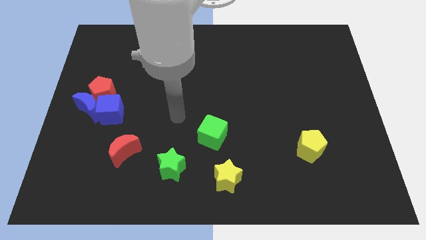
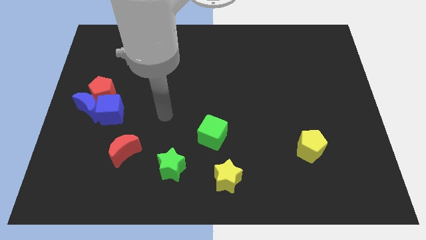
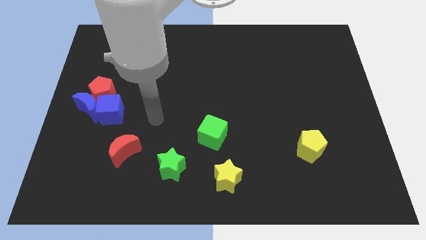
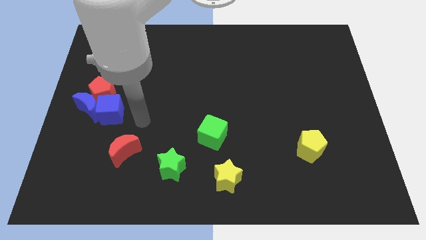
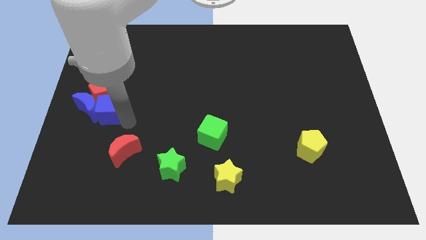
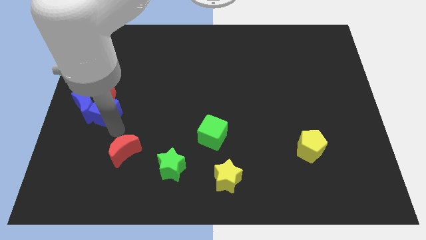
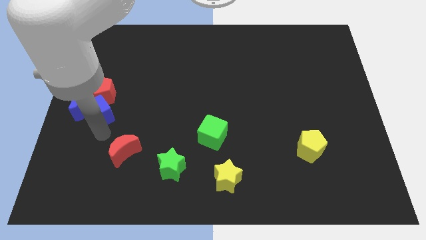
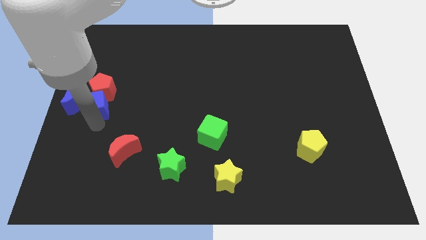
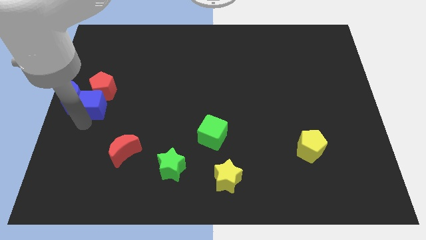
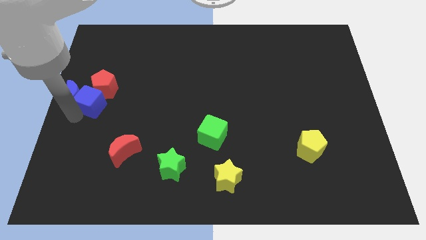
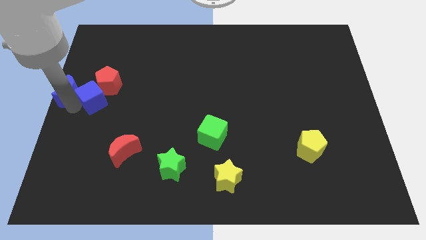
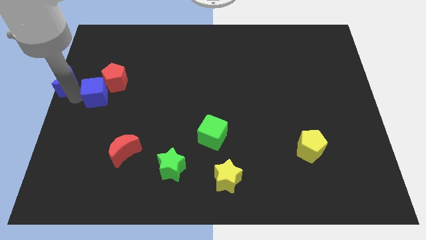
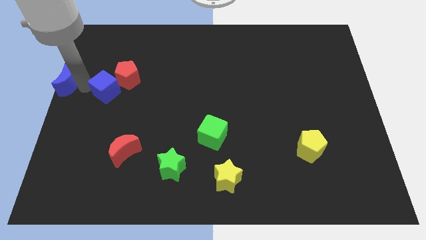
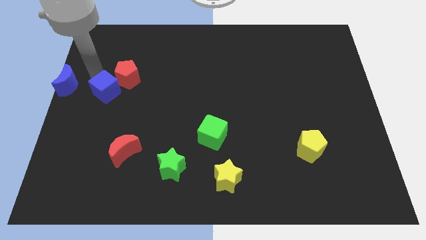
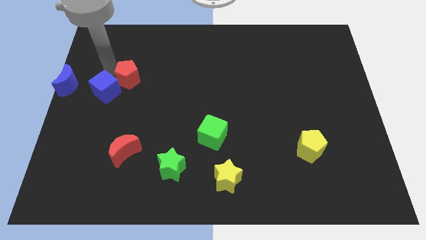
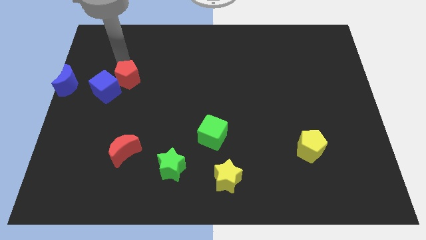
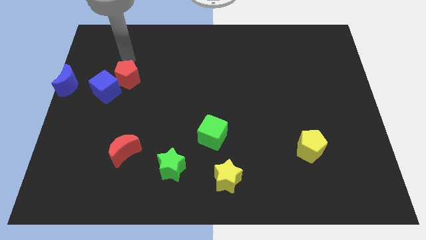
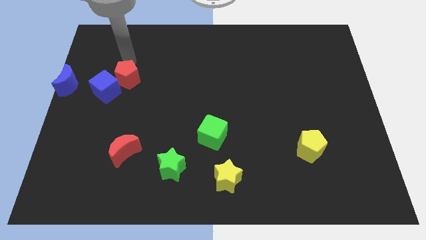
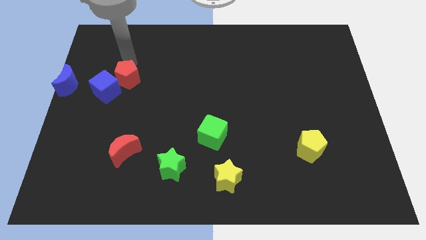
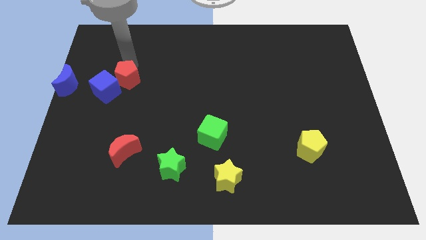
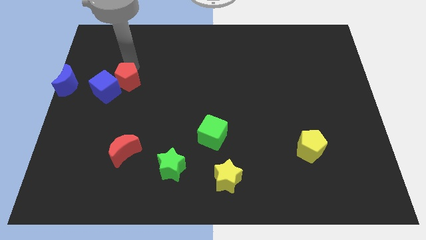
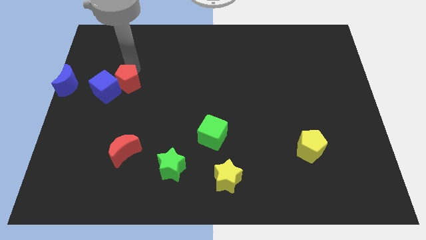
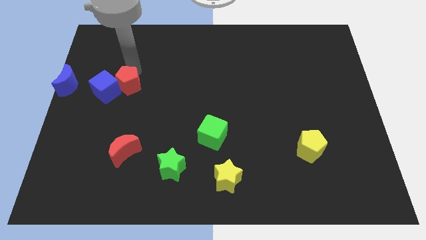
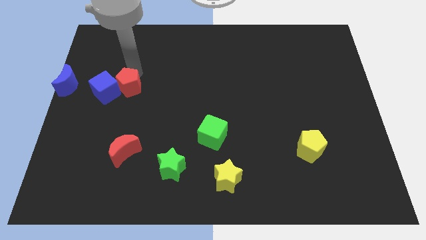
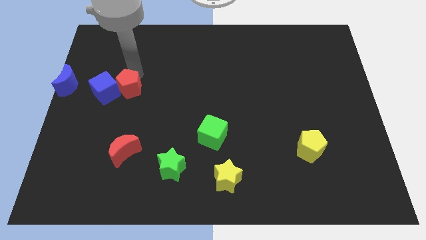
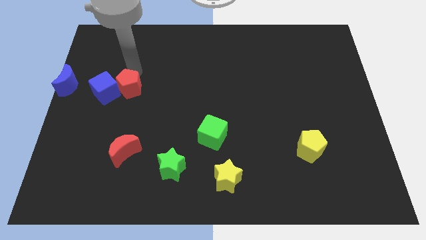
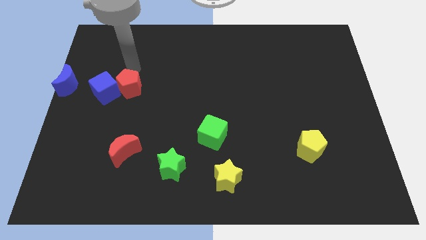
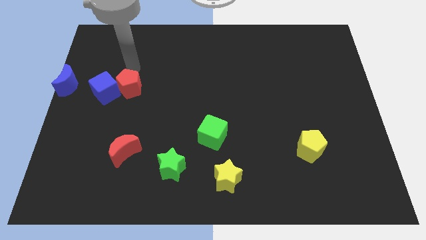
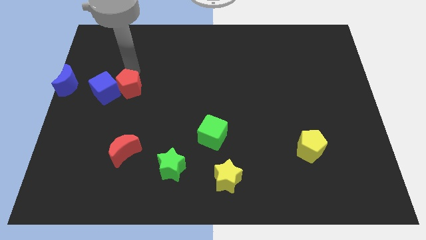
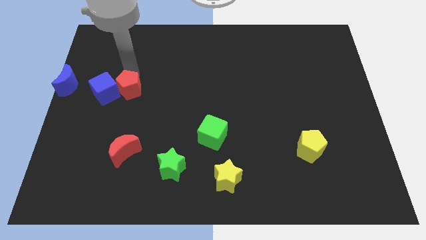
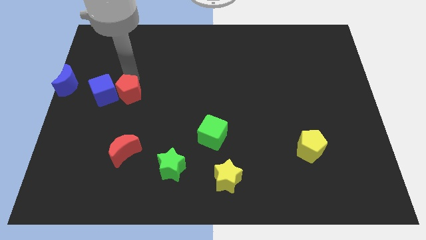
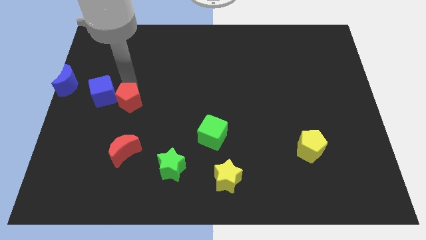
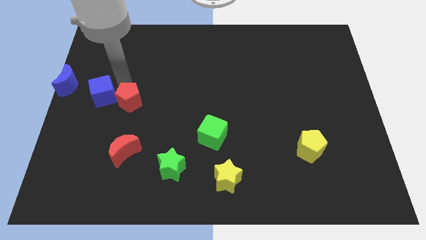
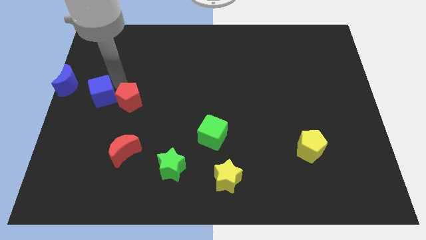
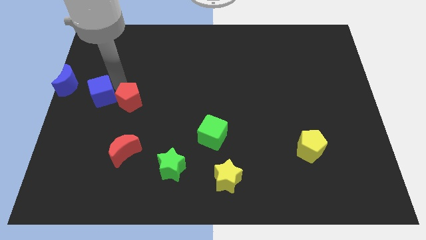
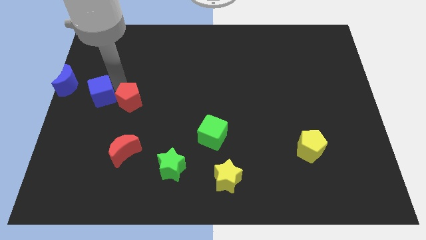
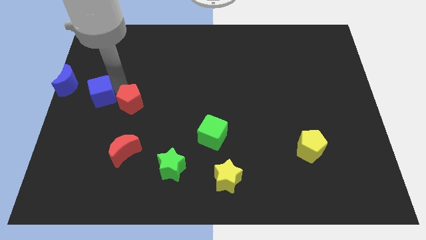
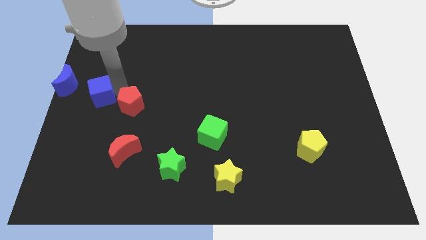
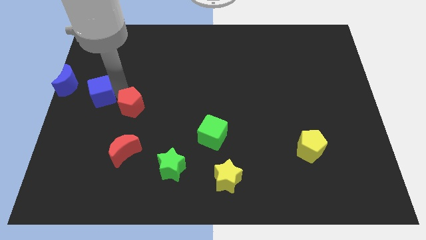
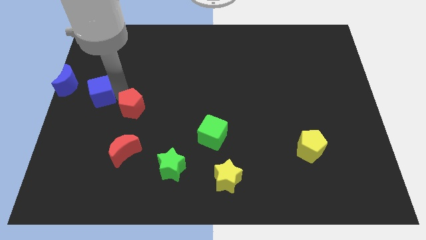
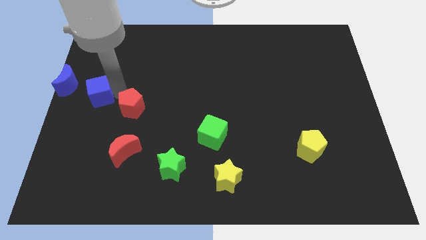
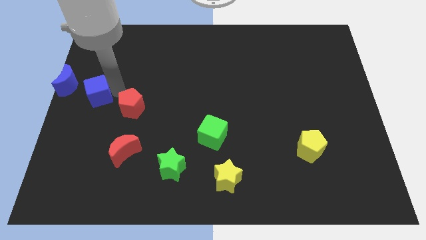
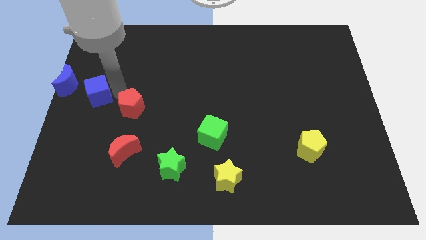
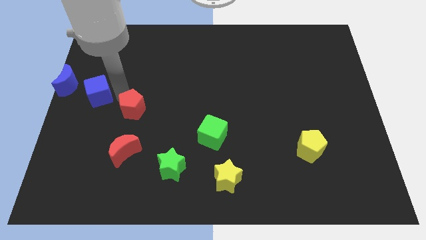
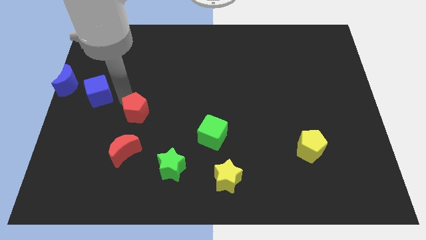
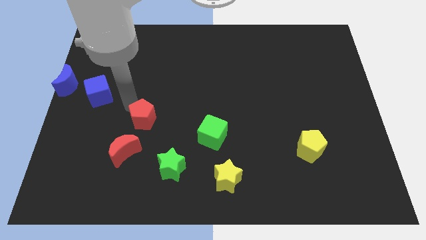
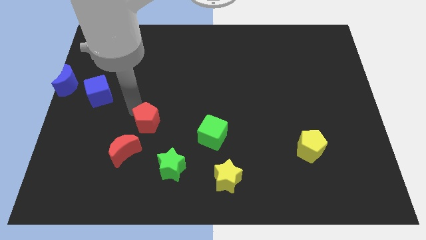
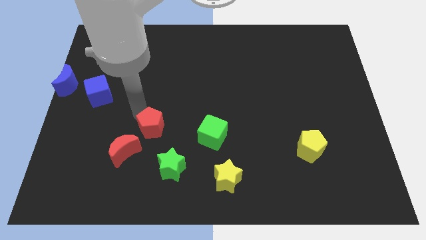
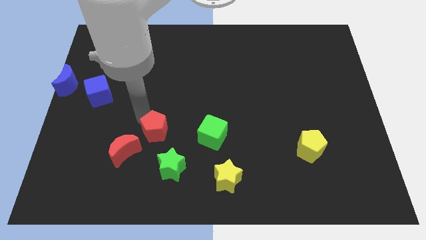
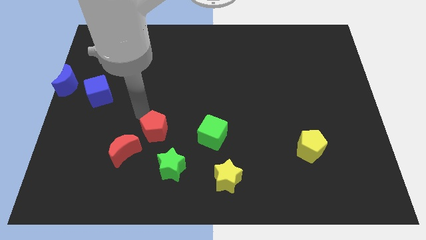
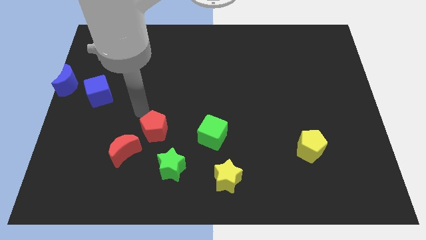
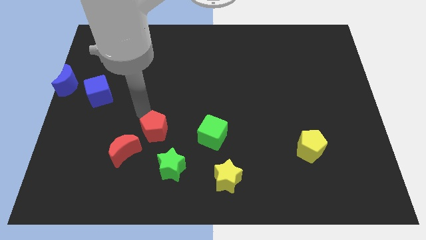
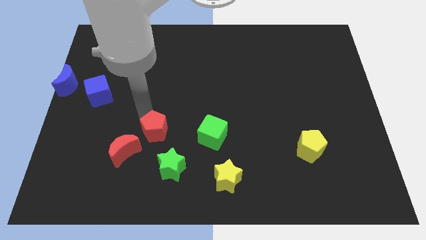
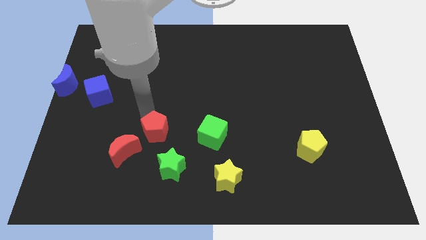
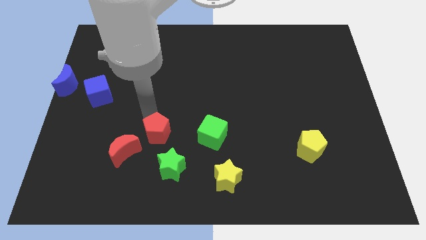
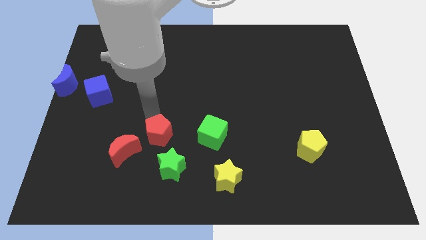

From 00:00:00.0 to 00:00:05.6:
push the red pentagon to the right of the red moon

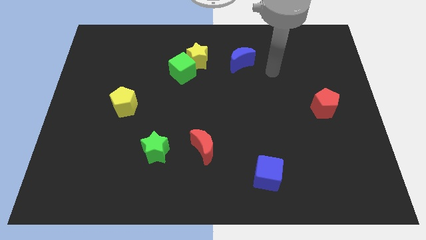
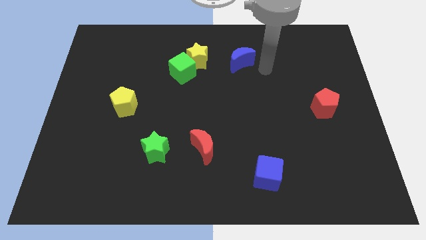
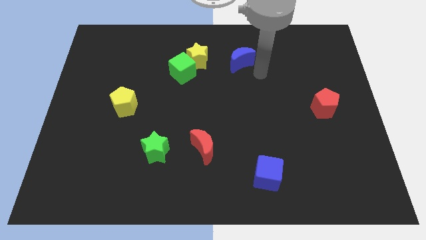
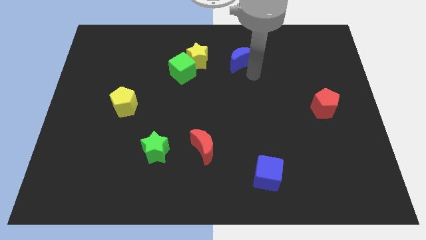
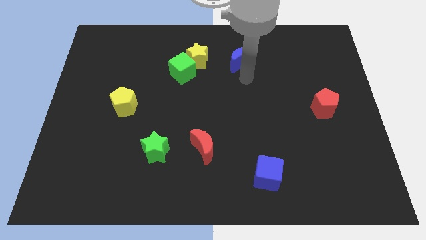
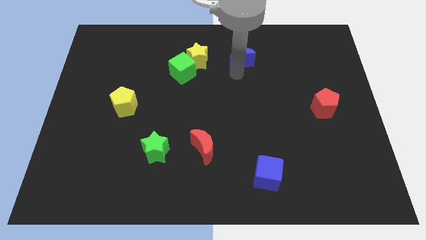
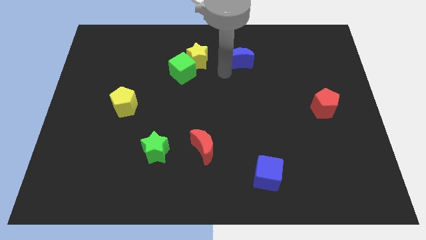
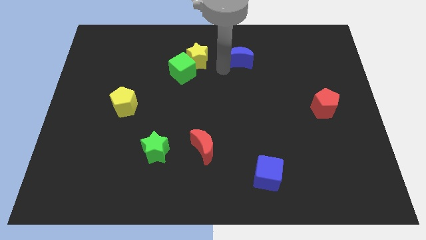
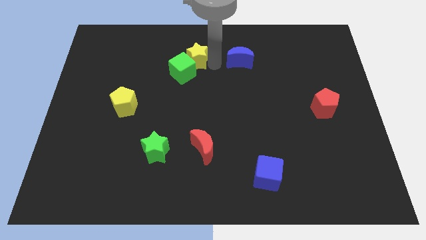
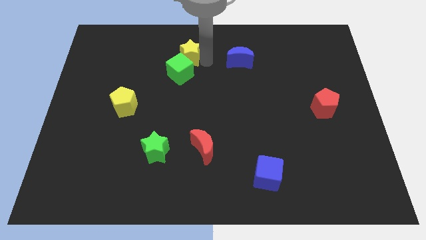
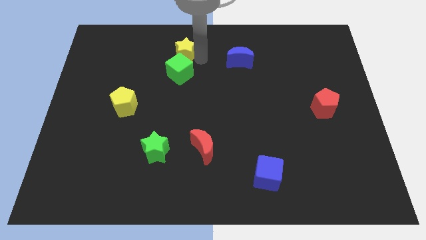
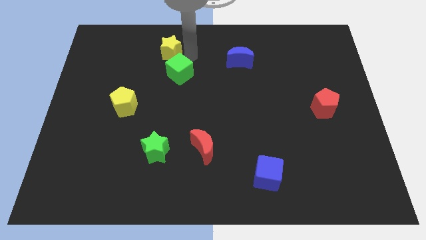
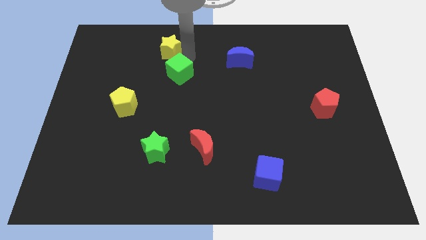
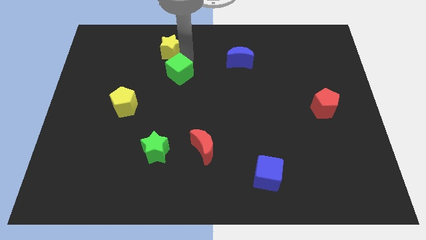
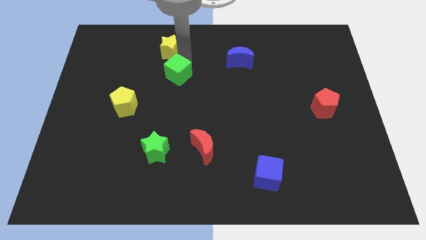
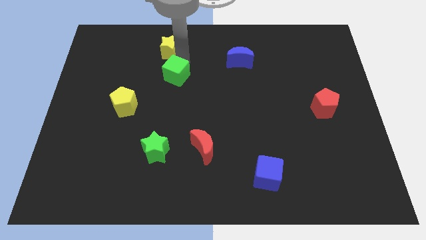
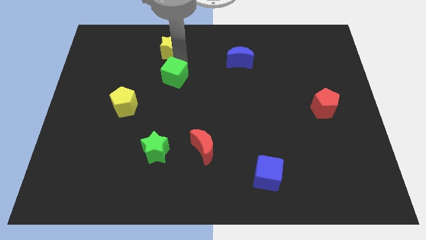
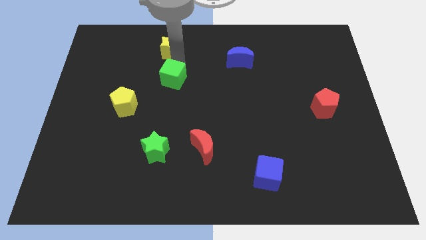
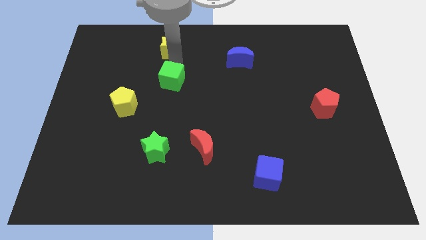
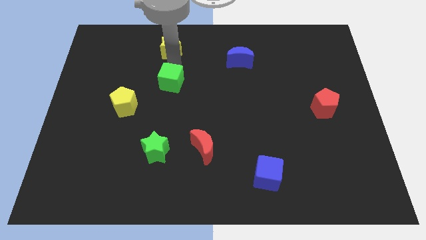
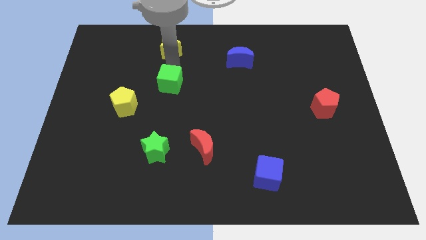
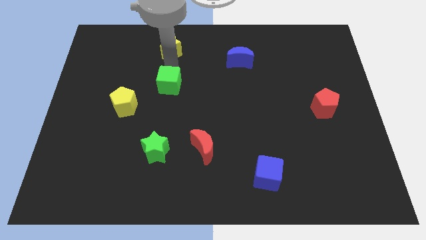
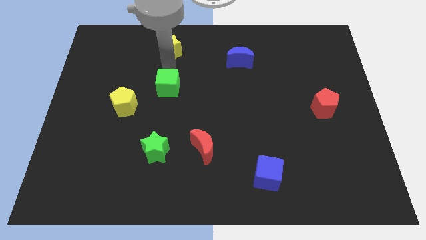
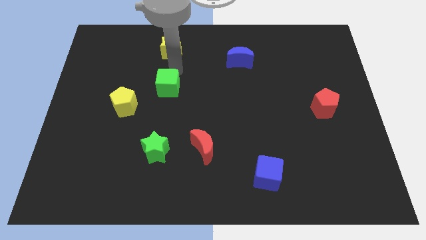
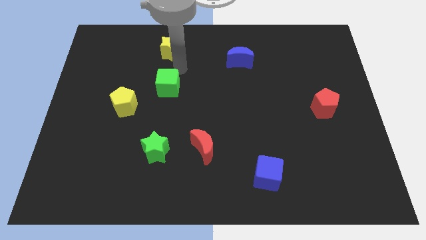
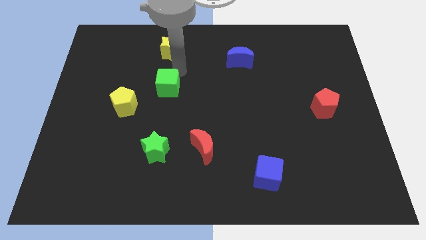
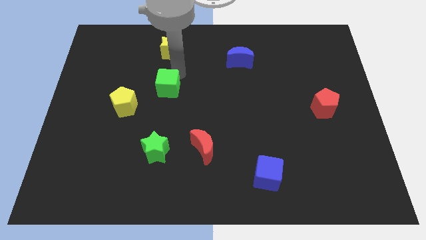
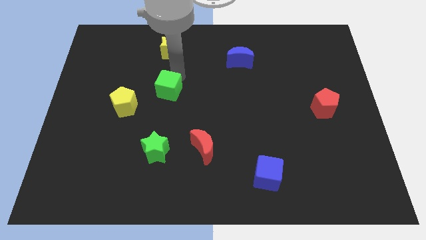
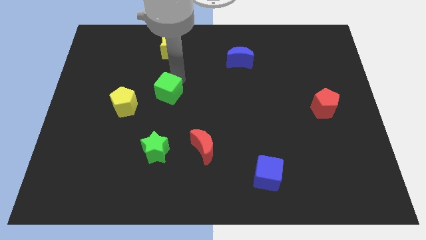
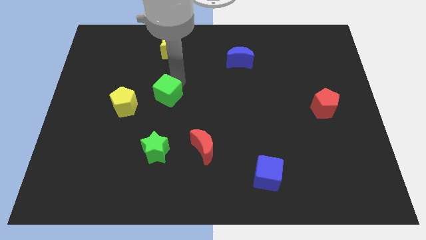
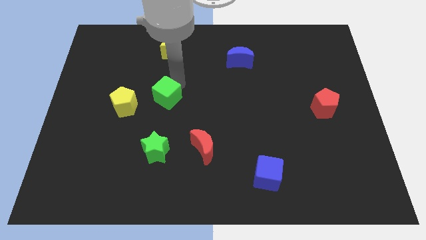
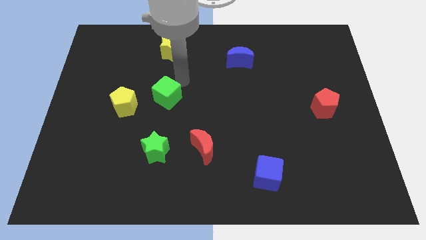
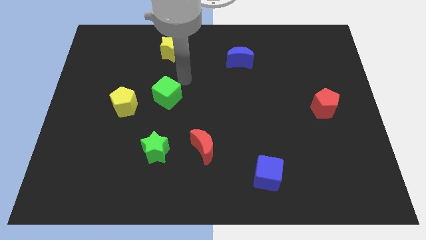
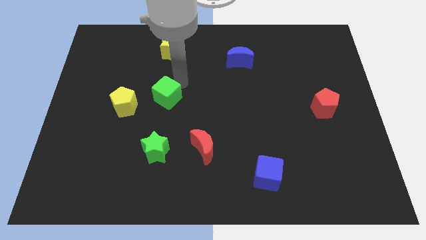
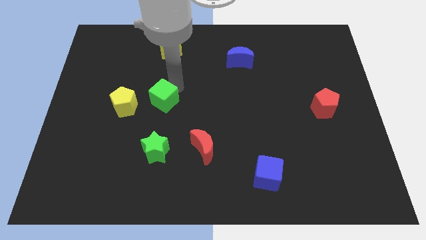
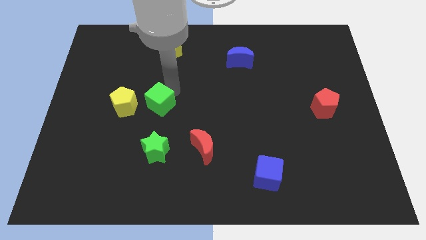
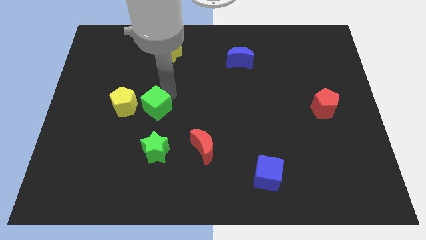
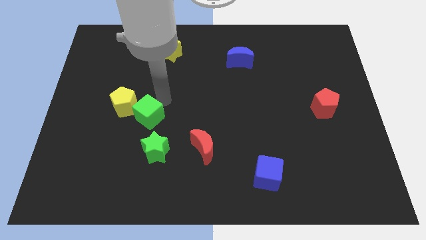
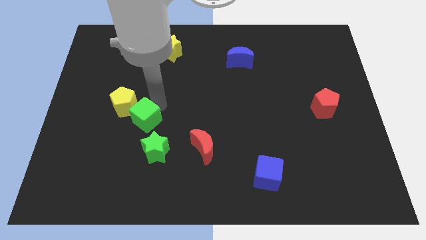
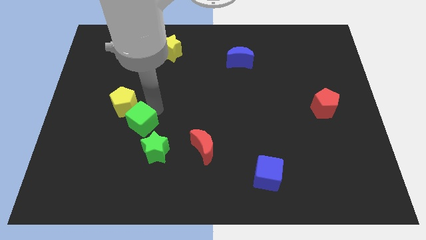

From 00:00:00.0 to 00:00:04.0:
put the green cube to the bottom side of the yellow pentagon
